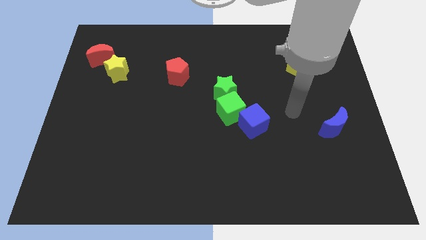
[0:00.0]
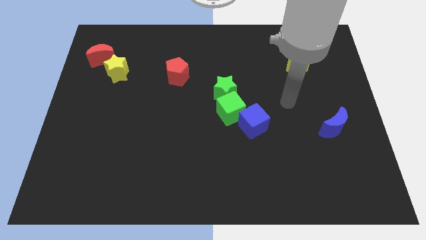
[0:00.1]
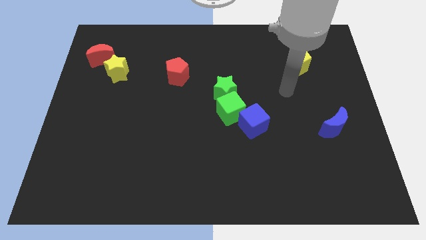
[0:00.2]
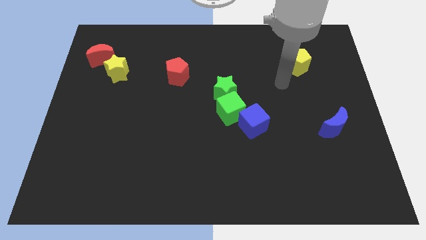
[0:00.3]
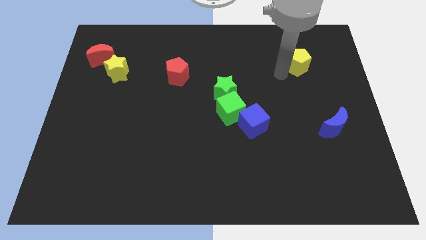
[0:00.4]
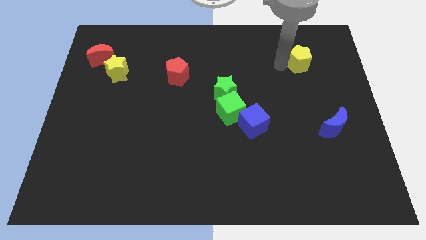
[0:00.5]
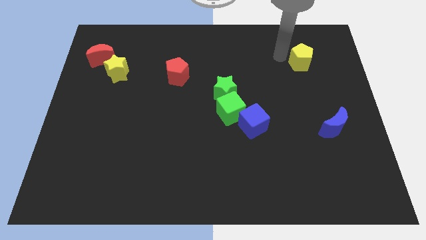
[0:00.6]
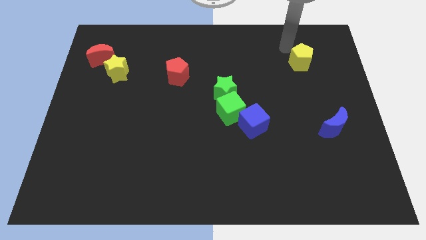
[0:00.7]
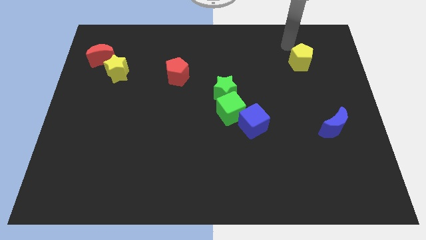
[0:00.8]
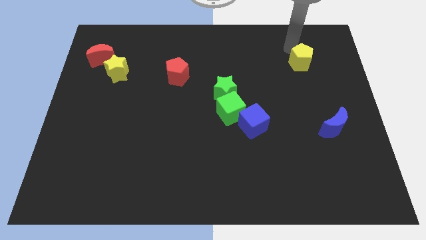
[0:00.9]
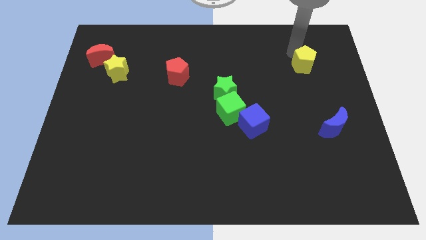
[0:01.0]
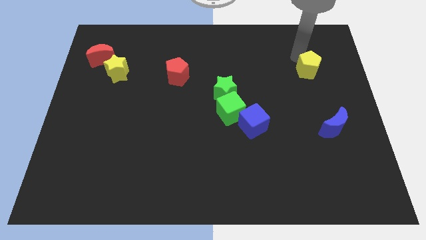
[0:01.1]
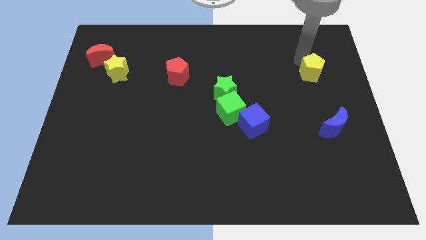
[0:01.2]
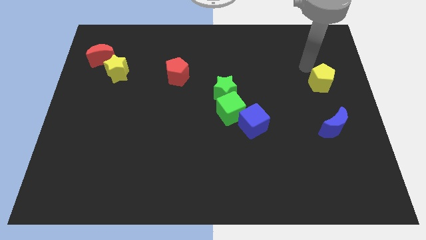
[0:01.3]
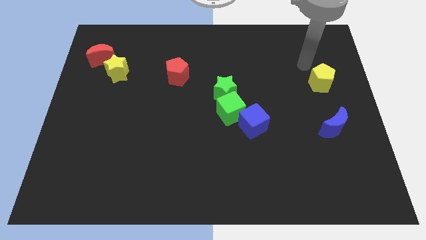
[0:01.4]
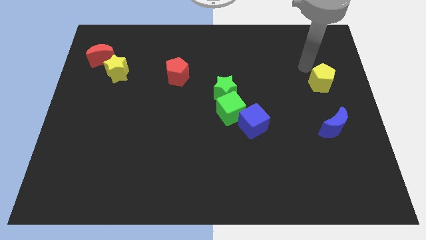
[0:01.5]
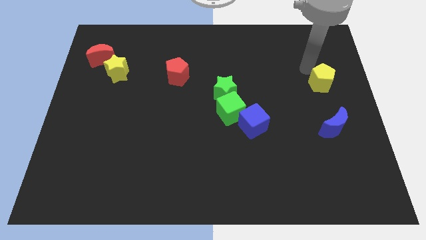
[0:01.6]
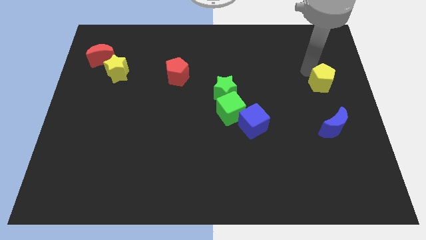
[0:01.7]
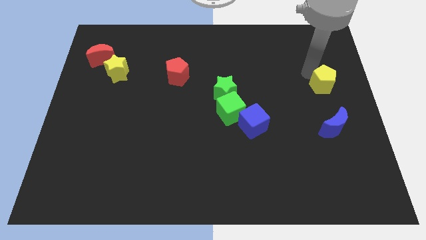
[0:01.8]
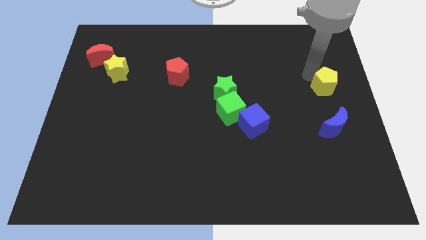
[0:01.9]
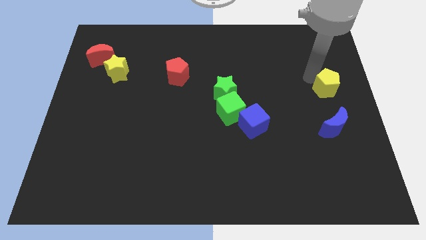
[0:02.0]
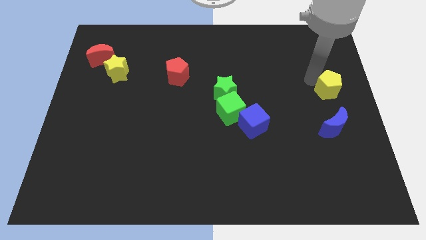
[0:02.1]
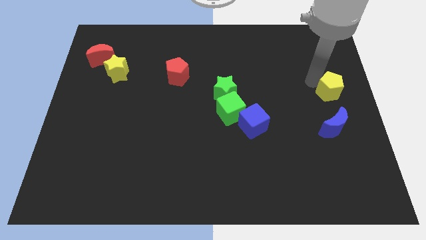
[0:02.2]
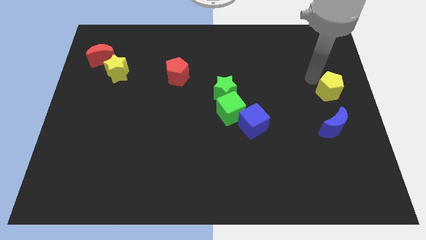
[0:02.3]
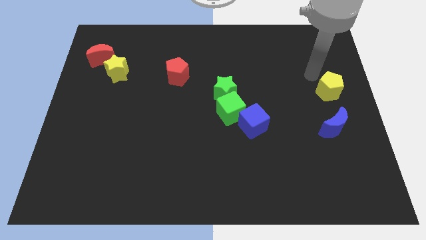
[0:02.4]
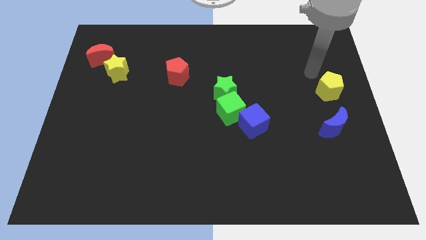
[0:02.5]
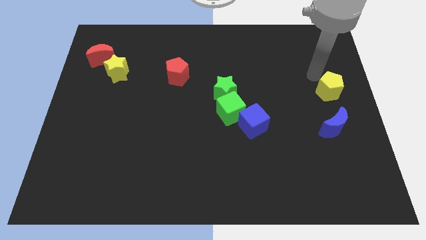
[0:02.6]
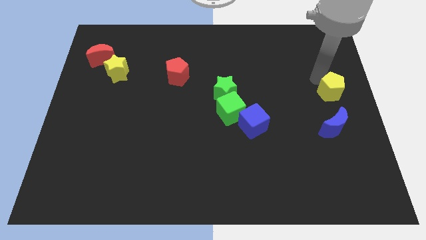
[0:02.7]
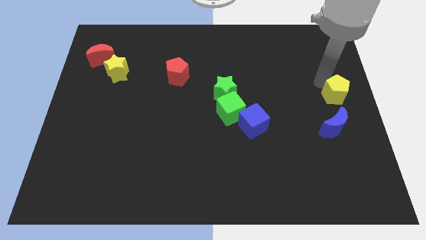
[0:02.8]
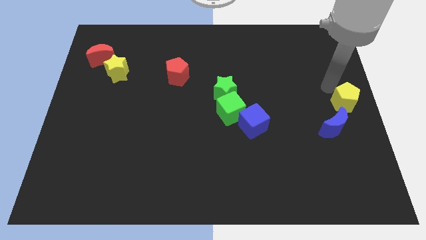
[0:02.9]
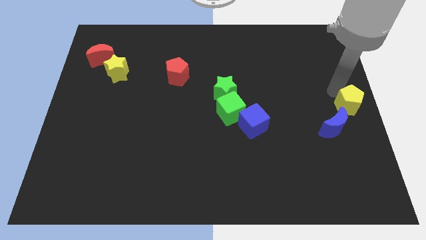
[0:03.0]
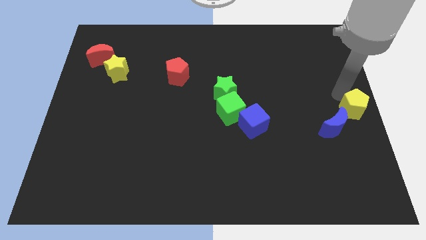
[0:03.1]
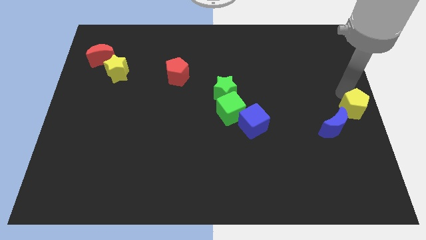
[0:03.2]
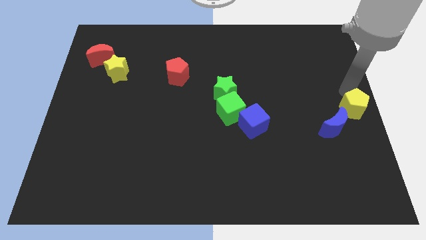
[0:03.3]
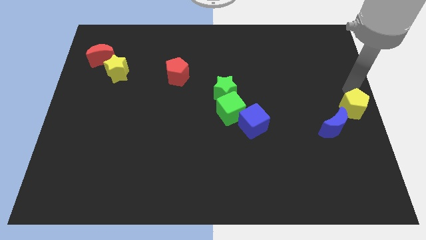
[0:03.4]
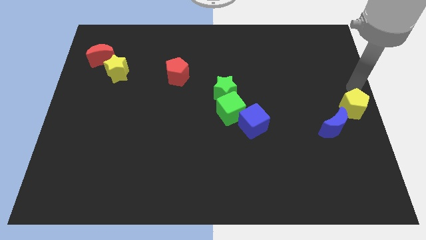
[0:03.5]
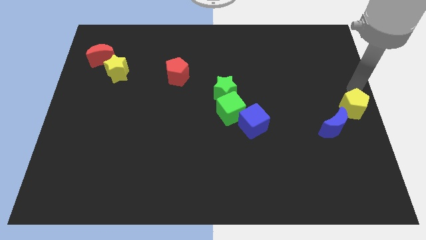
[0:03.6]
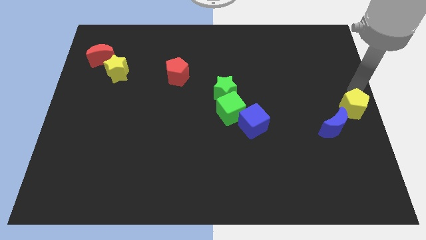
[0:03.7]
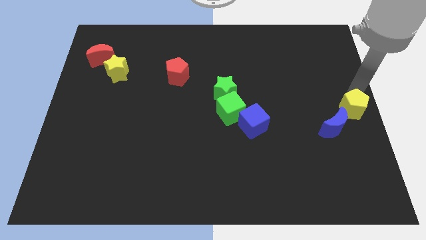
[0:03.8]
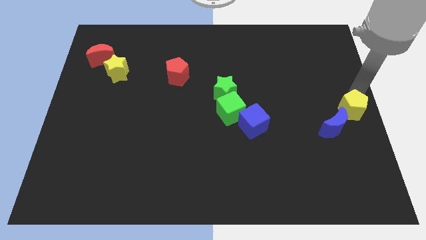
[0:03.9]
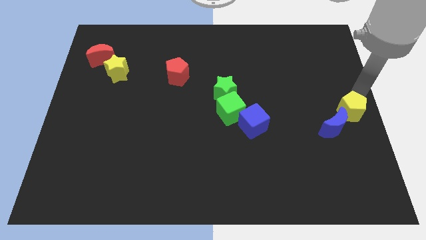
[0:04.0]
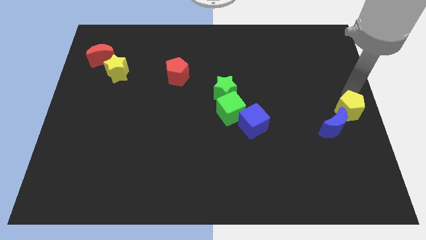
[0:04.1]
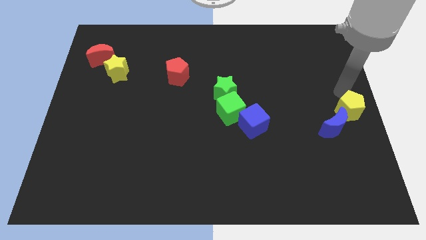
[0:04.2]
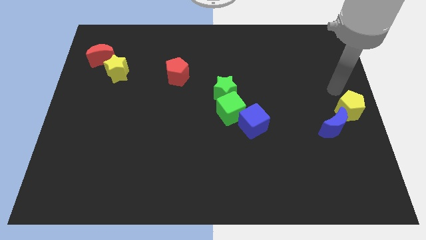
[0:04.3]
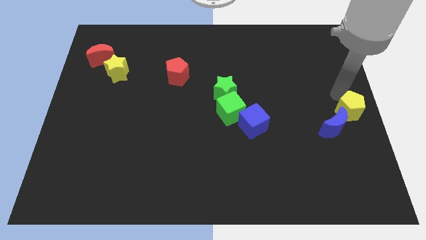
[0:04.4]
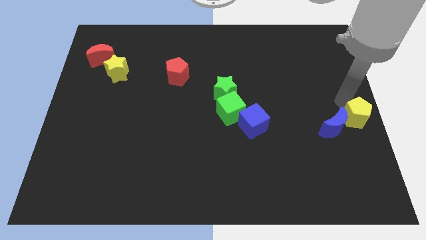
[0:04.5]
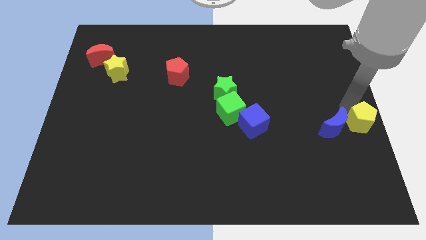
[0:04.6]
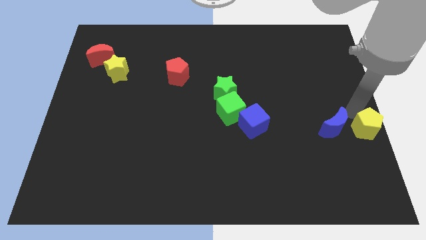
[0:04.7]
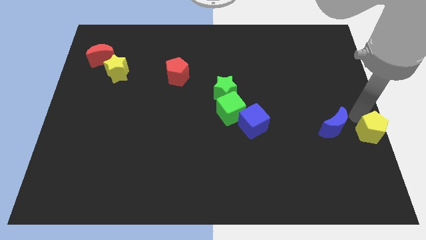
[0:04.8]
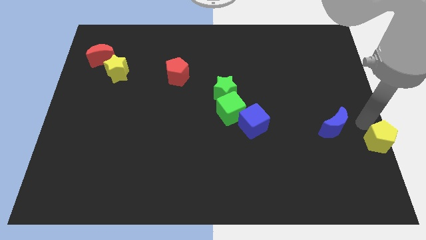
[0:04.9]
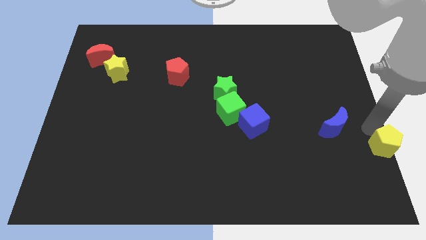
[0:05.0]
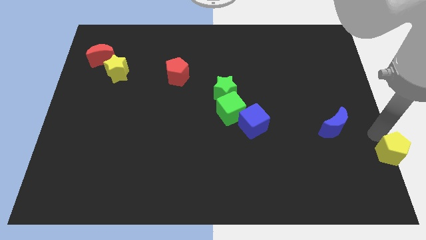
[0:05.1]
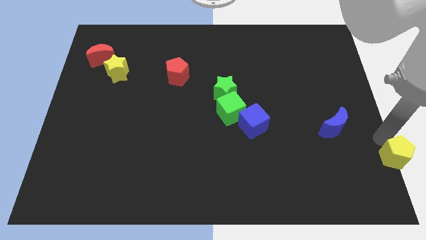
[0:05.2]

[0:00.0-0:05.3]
put the yellow pentagon to the lower right corner

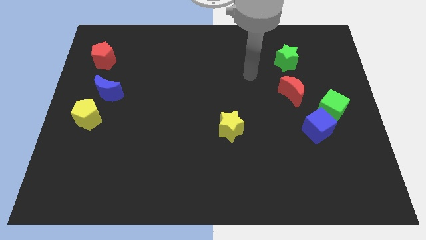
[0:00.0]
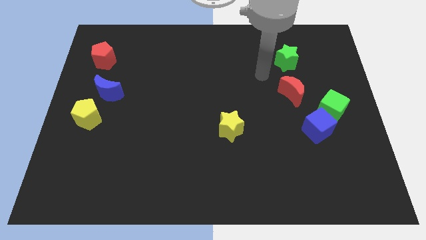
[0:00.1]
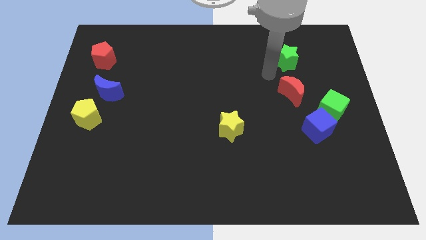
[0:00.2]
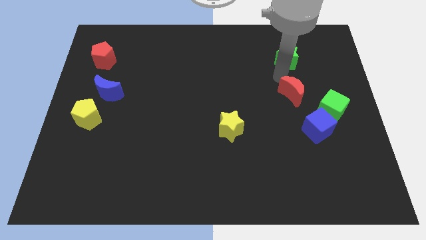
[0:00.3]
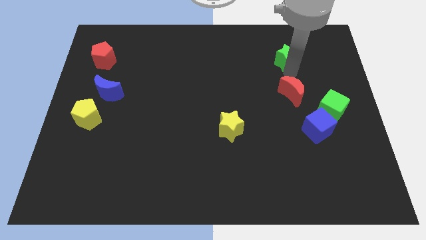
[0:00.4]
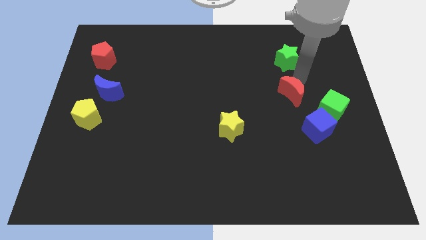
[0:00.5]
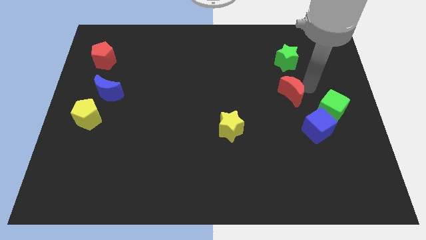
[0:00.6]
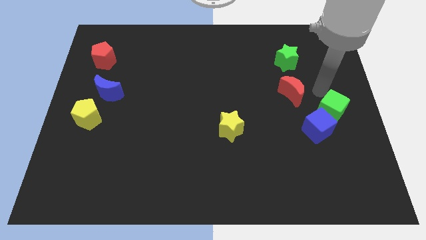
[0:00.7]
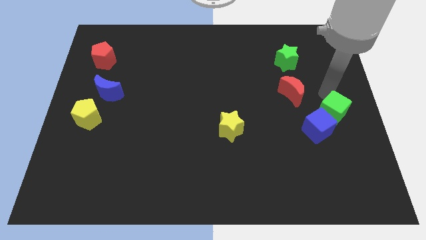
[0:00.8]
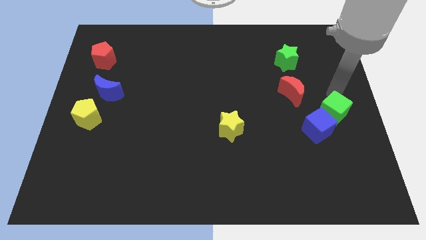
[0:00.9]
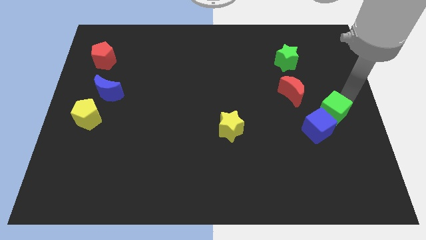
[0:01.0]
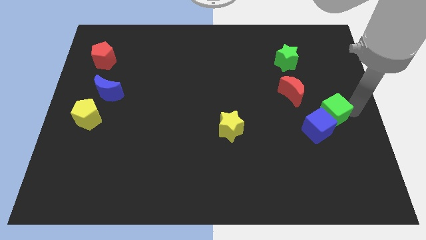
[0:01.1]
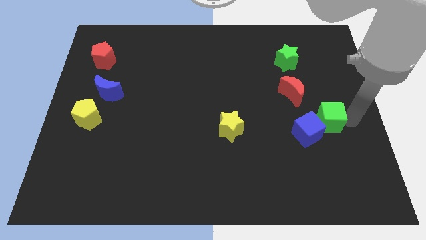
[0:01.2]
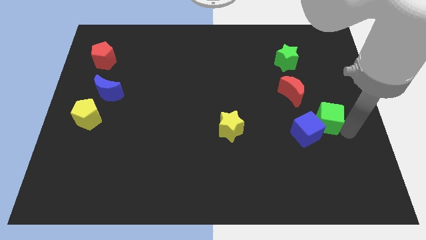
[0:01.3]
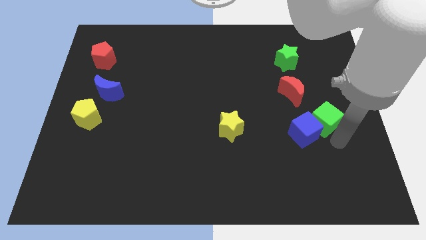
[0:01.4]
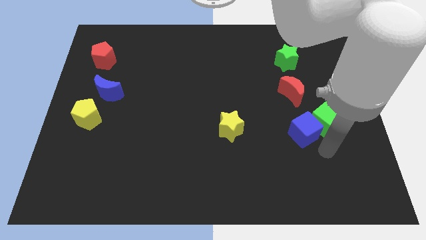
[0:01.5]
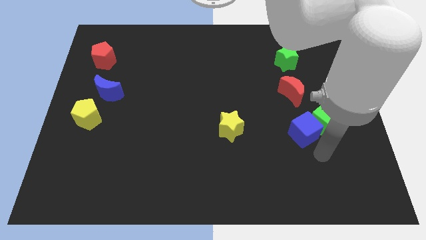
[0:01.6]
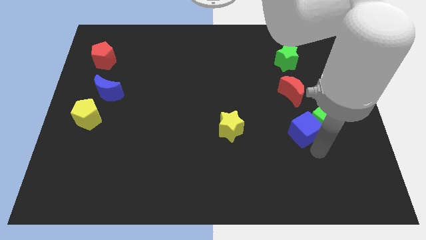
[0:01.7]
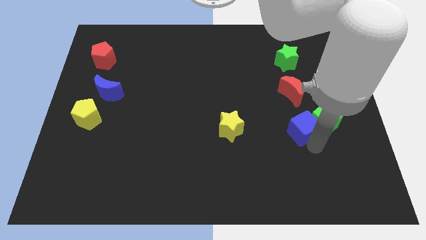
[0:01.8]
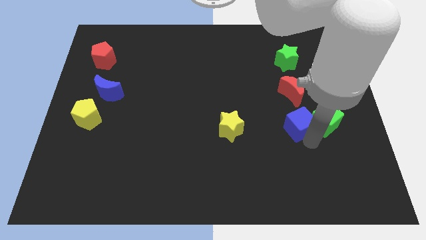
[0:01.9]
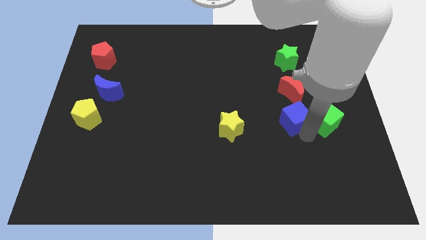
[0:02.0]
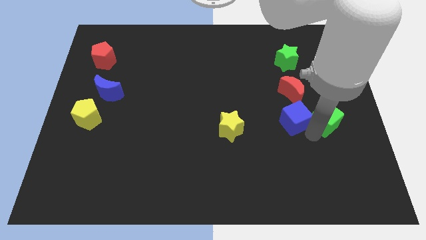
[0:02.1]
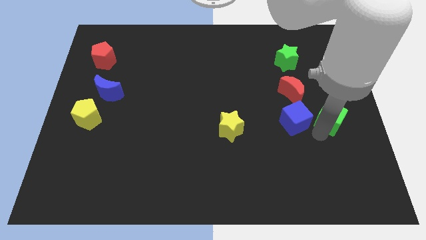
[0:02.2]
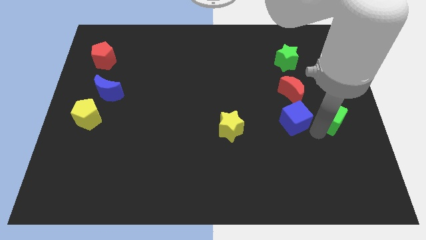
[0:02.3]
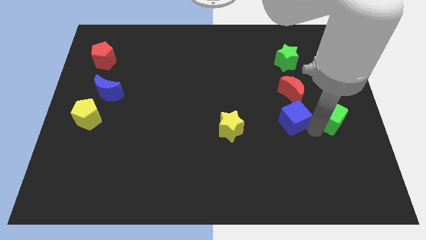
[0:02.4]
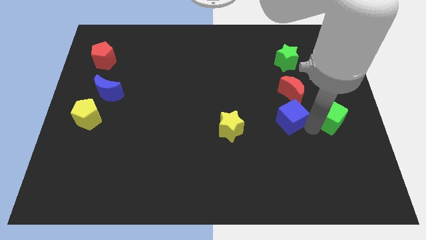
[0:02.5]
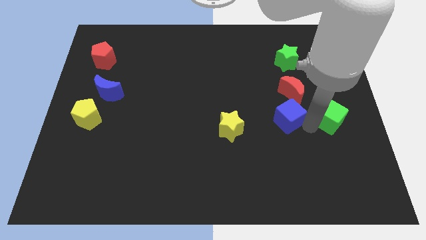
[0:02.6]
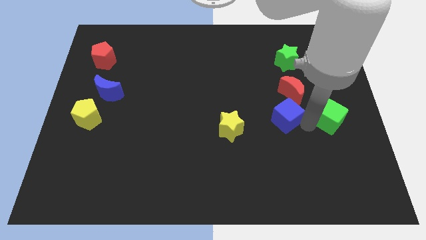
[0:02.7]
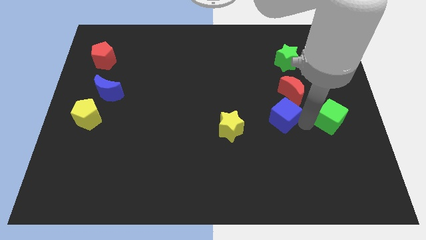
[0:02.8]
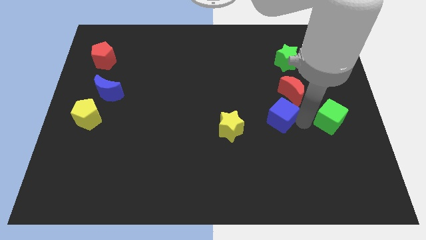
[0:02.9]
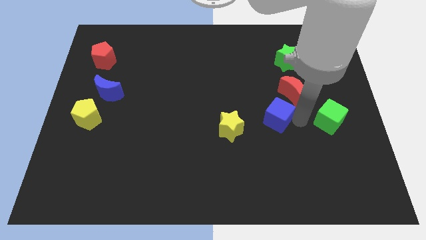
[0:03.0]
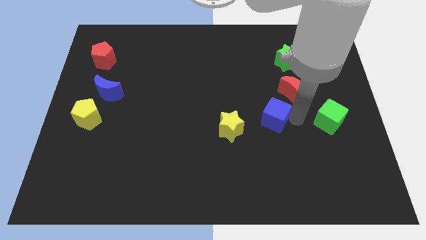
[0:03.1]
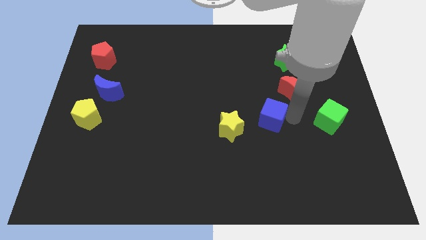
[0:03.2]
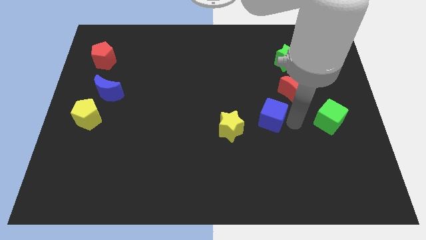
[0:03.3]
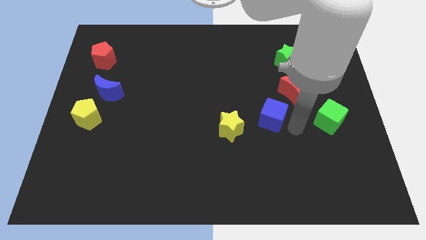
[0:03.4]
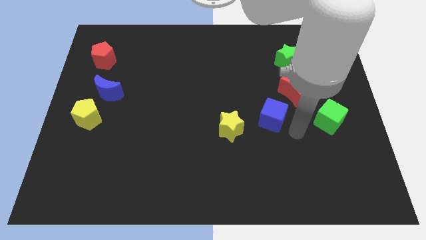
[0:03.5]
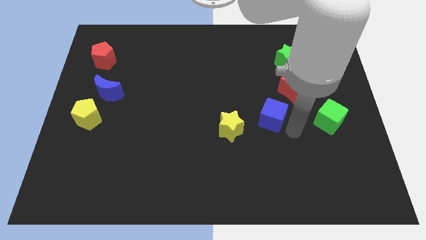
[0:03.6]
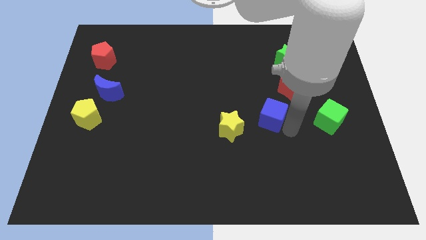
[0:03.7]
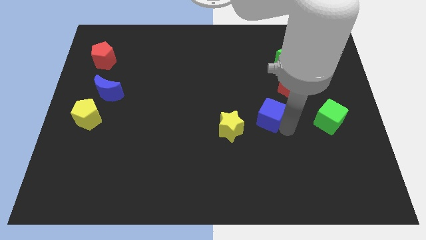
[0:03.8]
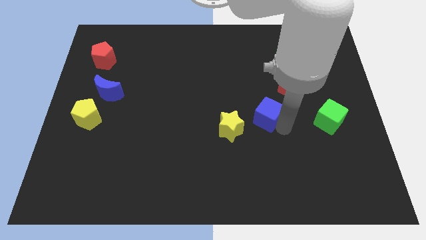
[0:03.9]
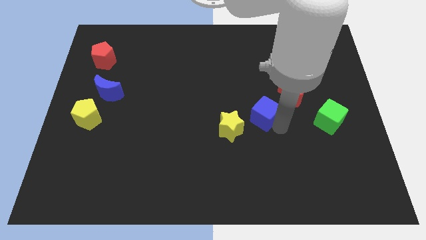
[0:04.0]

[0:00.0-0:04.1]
push the blue cube to the middle
